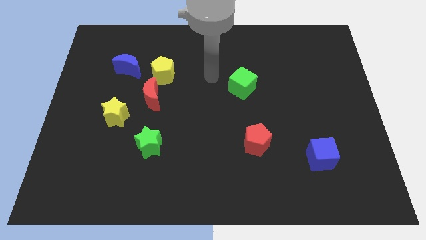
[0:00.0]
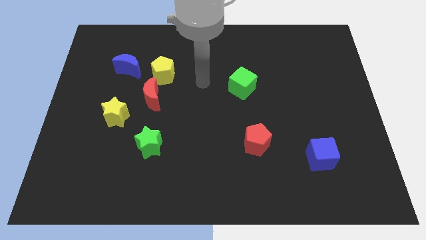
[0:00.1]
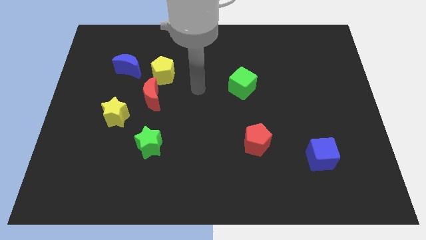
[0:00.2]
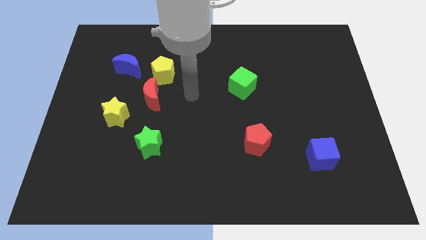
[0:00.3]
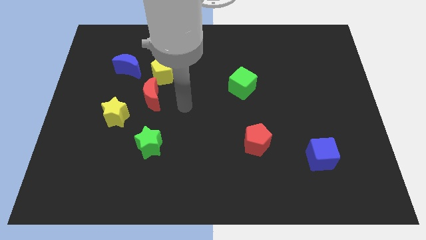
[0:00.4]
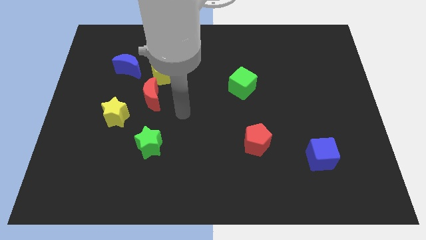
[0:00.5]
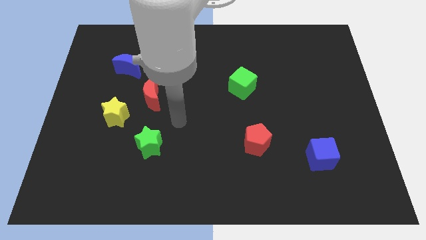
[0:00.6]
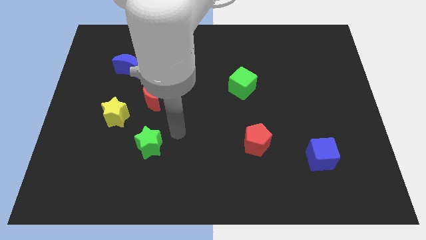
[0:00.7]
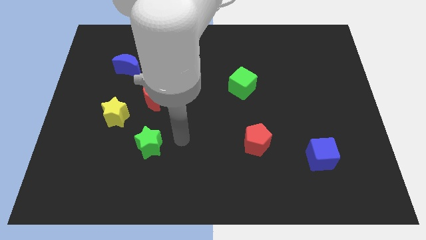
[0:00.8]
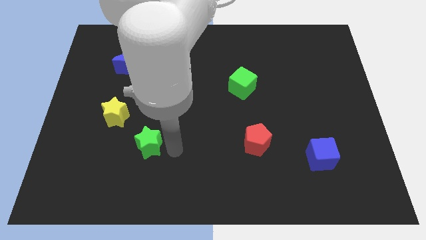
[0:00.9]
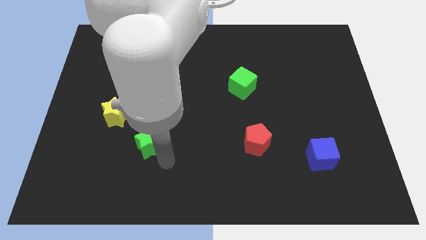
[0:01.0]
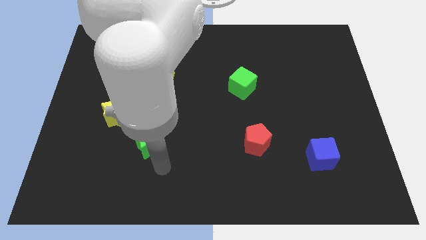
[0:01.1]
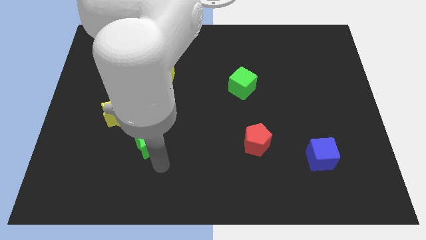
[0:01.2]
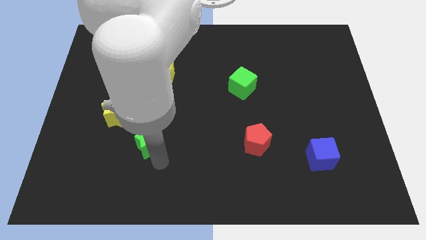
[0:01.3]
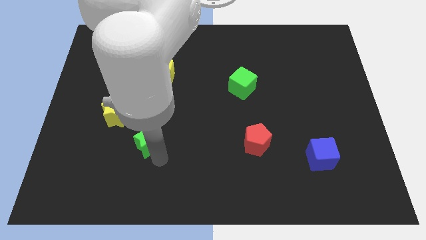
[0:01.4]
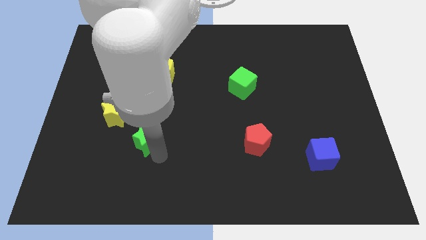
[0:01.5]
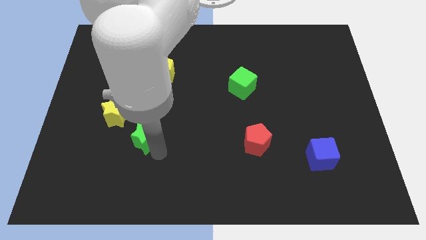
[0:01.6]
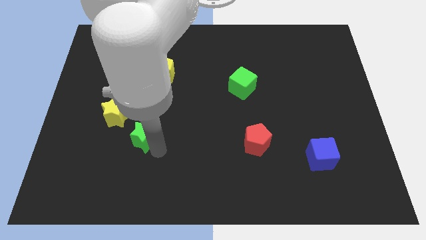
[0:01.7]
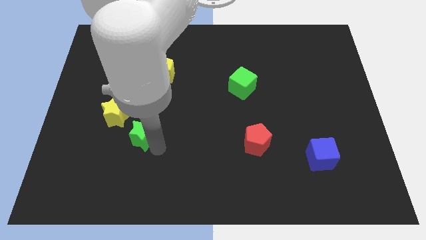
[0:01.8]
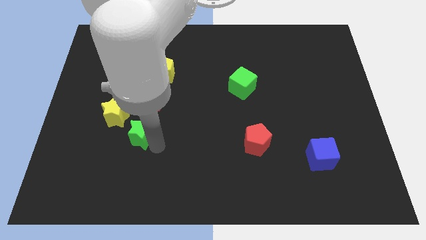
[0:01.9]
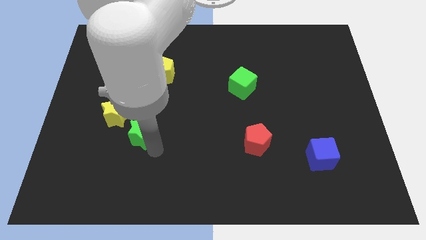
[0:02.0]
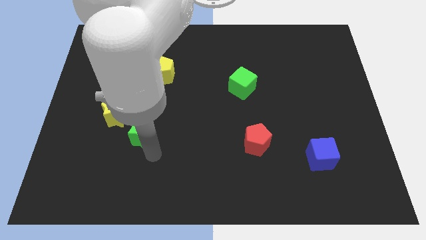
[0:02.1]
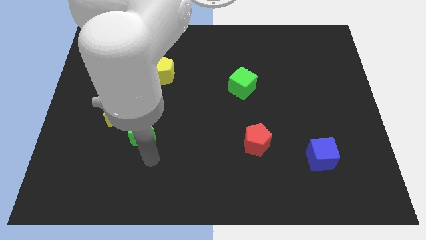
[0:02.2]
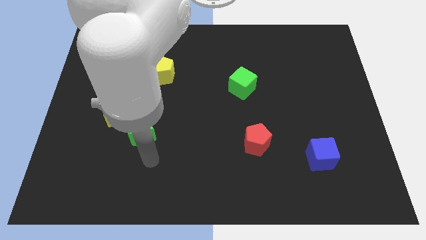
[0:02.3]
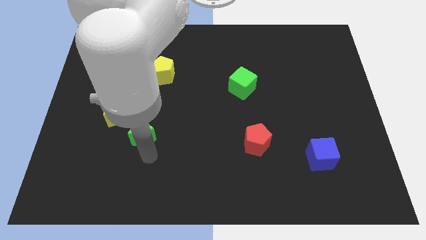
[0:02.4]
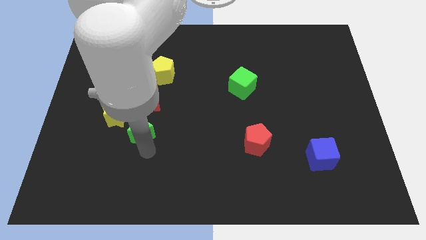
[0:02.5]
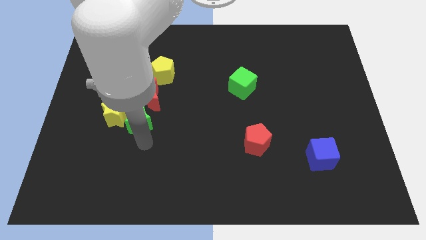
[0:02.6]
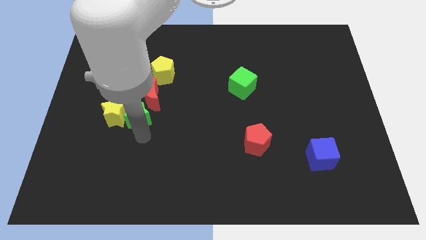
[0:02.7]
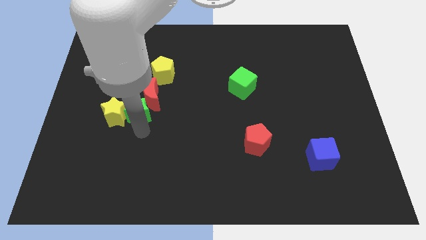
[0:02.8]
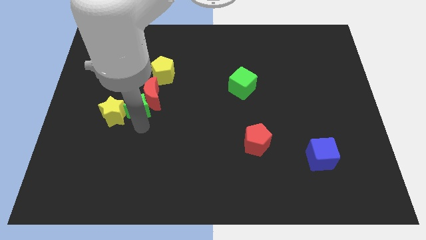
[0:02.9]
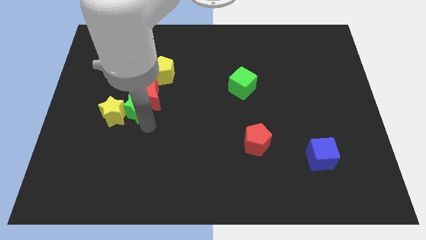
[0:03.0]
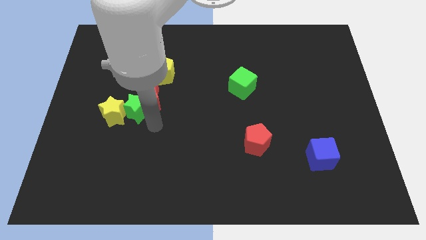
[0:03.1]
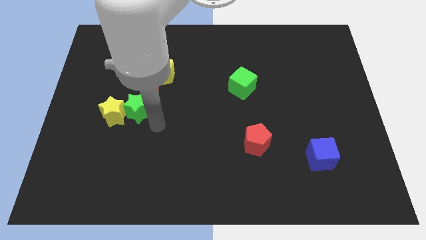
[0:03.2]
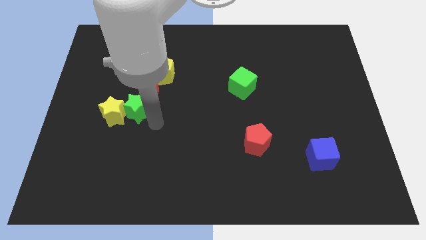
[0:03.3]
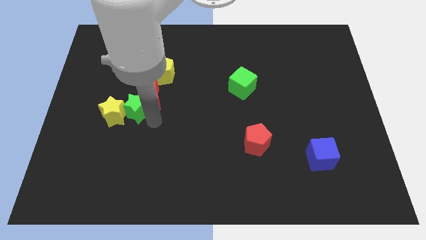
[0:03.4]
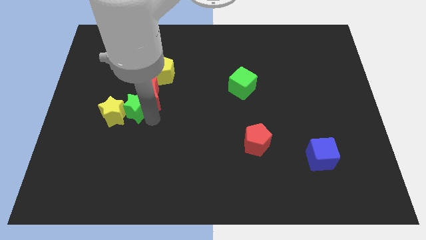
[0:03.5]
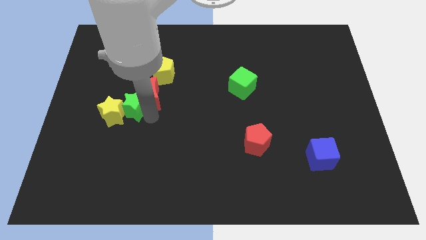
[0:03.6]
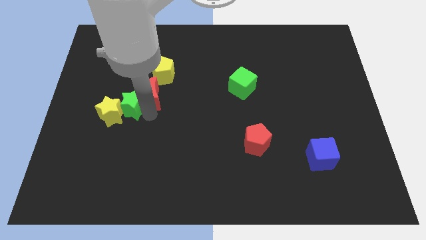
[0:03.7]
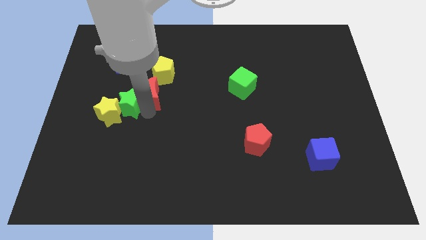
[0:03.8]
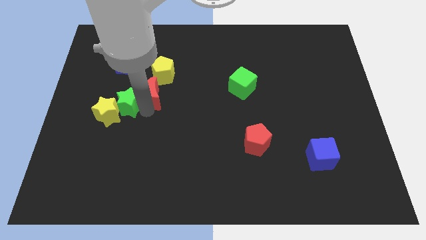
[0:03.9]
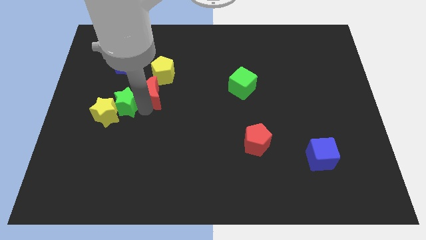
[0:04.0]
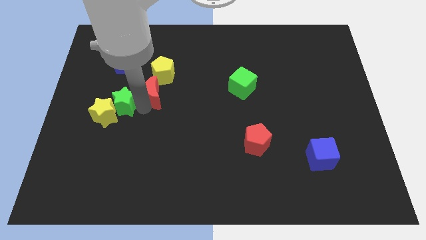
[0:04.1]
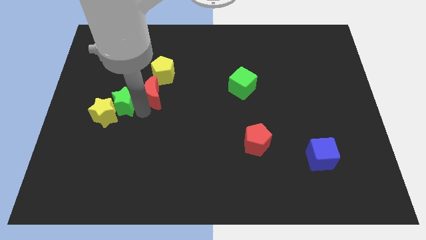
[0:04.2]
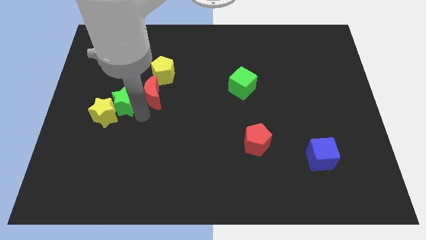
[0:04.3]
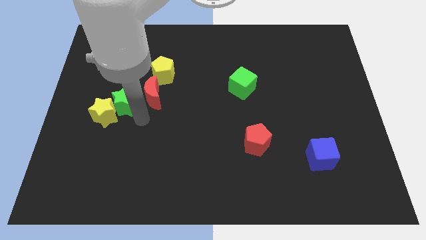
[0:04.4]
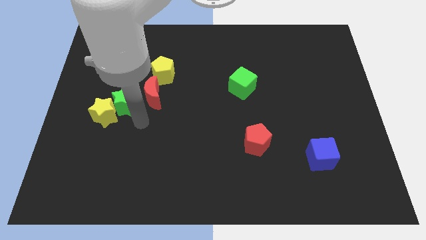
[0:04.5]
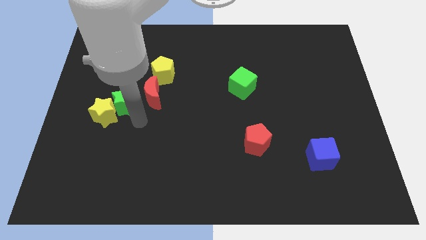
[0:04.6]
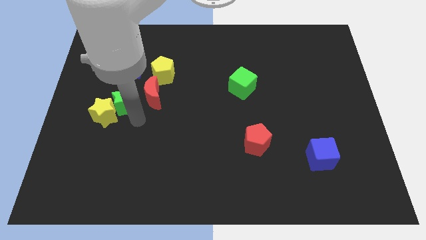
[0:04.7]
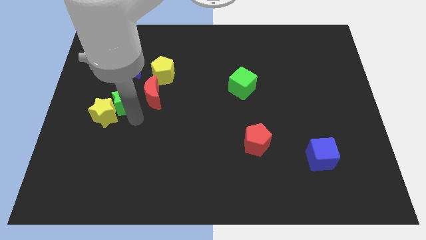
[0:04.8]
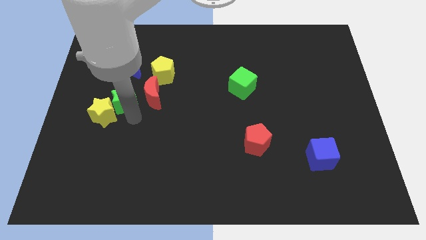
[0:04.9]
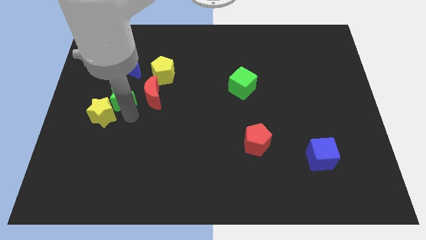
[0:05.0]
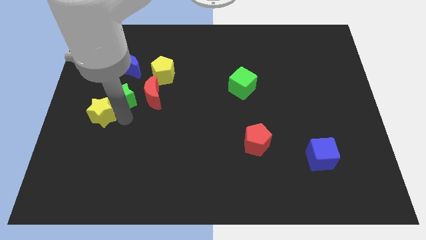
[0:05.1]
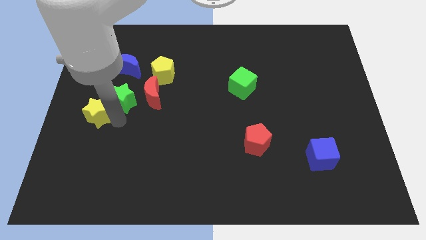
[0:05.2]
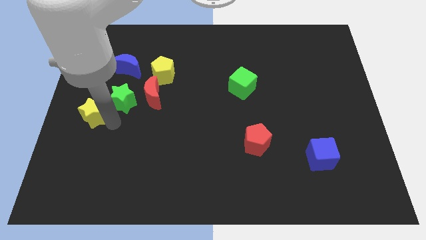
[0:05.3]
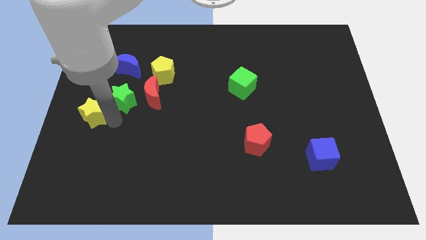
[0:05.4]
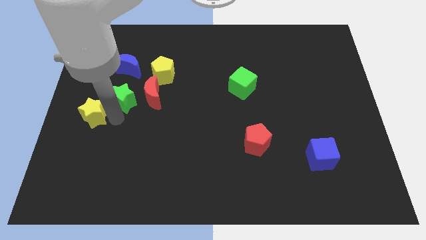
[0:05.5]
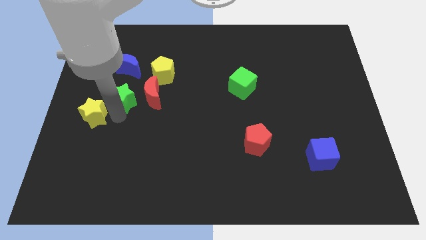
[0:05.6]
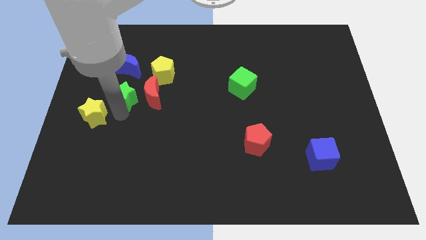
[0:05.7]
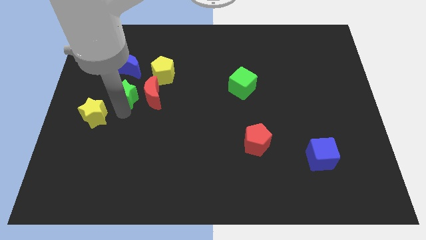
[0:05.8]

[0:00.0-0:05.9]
slide the green star to the top left side of the red moon

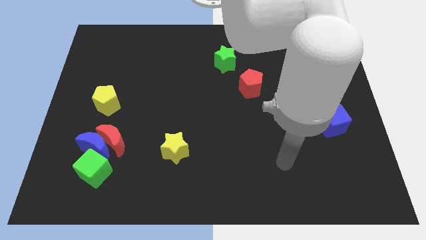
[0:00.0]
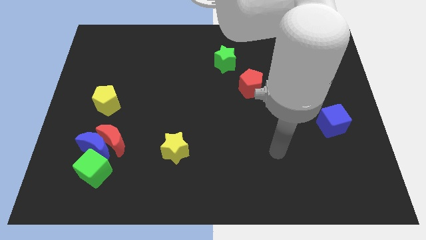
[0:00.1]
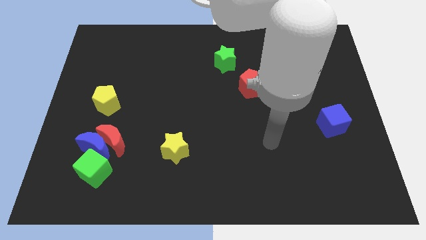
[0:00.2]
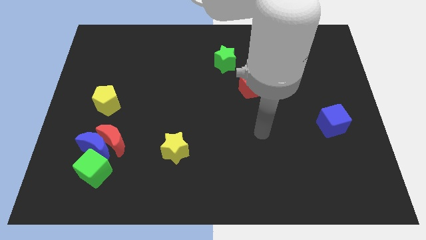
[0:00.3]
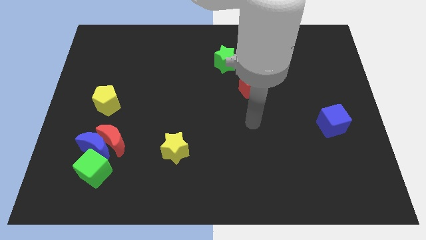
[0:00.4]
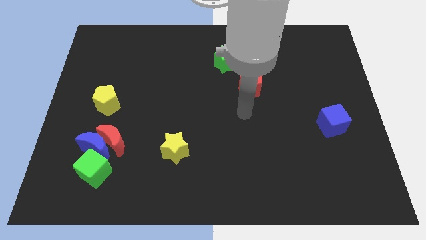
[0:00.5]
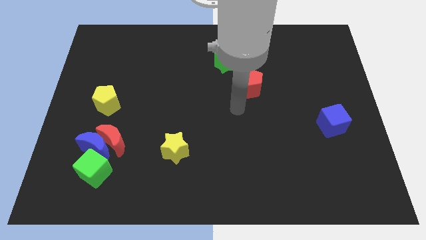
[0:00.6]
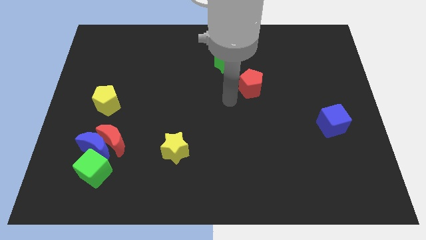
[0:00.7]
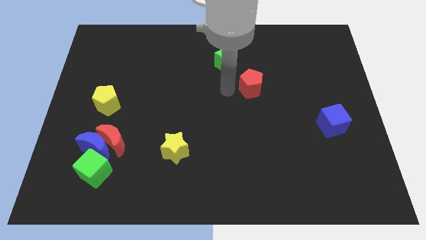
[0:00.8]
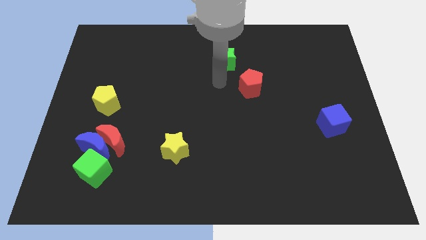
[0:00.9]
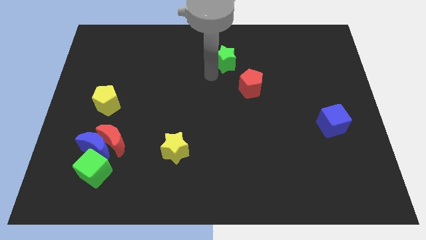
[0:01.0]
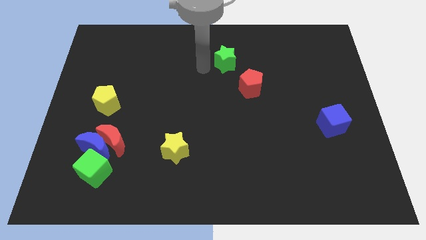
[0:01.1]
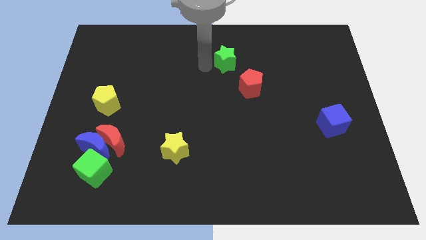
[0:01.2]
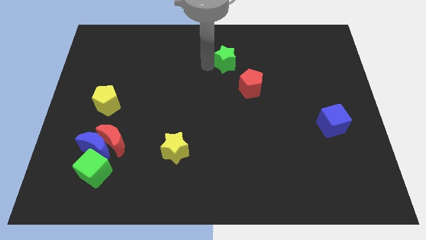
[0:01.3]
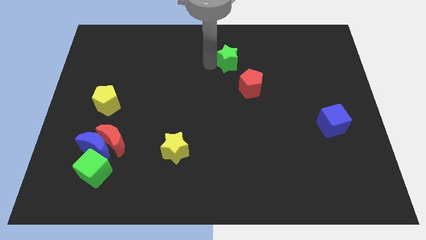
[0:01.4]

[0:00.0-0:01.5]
push the green star to the top side of the red pentagon

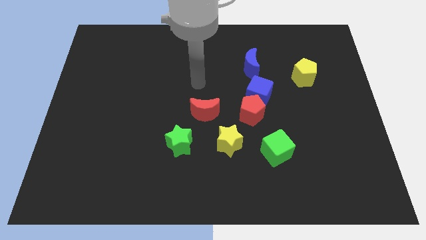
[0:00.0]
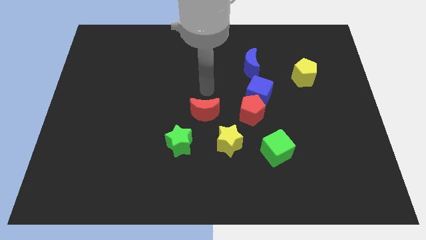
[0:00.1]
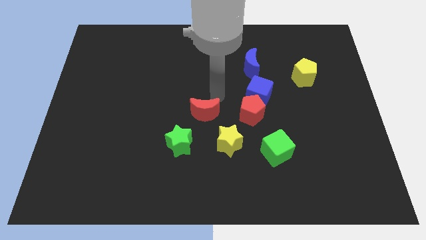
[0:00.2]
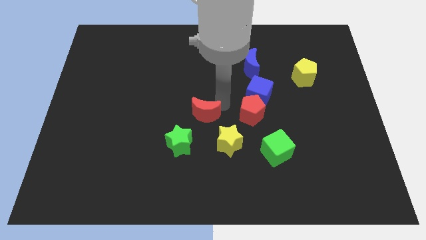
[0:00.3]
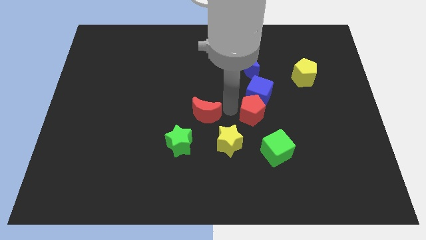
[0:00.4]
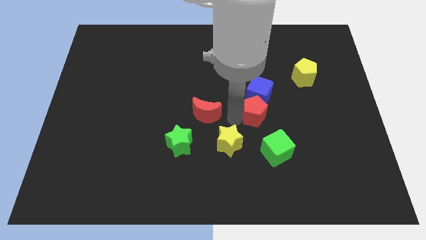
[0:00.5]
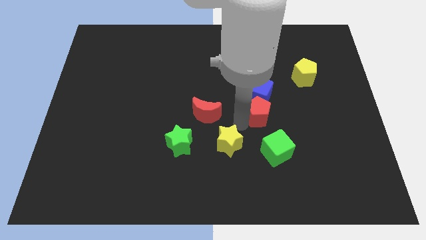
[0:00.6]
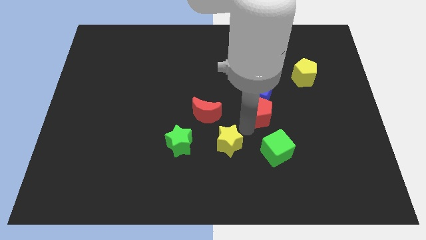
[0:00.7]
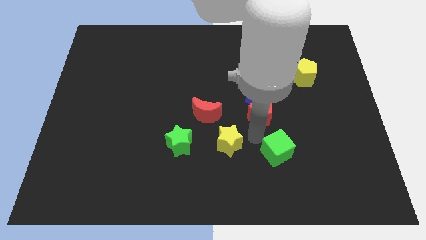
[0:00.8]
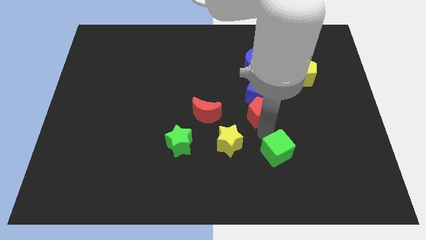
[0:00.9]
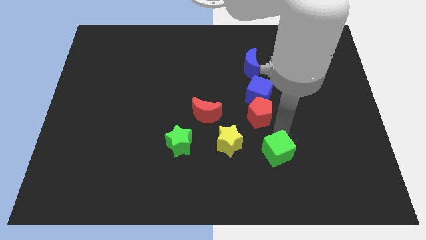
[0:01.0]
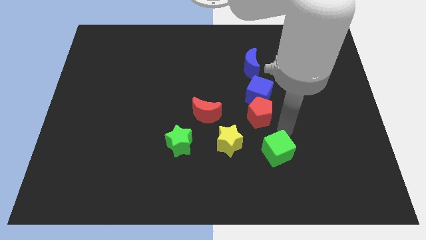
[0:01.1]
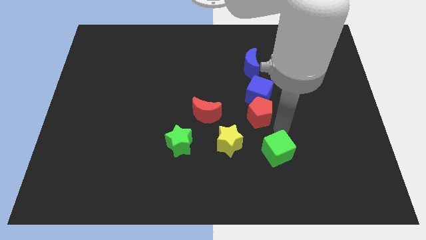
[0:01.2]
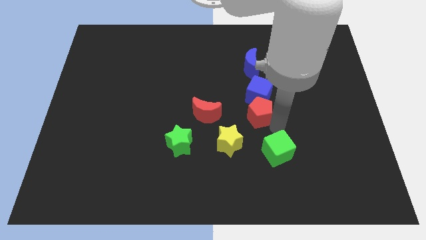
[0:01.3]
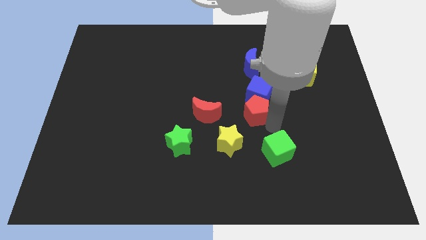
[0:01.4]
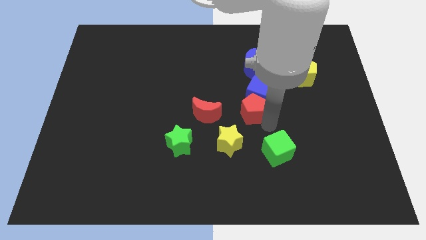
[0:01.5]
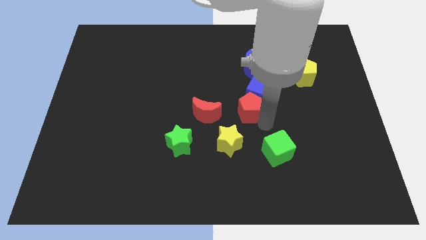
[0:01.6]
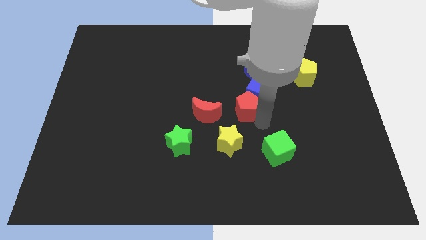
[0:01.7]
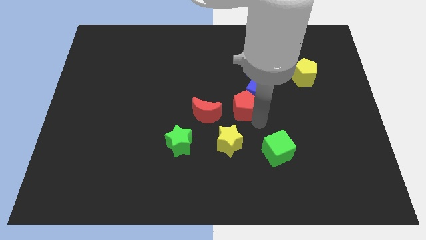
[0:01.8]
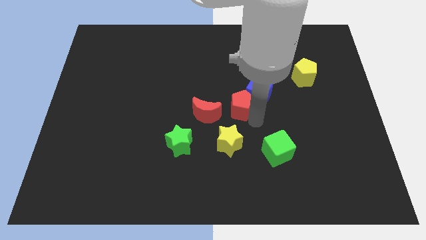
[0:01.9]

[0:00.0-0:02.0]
push the red pentagon to the top right side of the red moon
